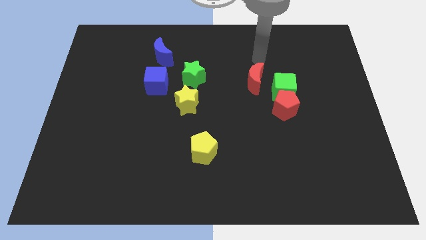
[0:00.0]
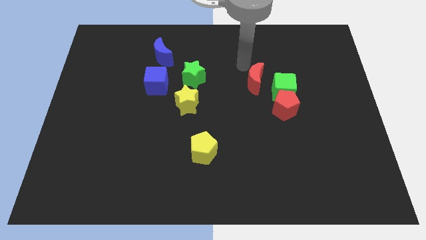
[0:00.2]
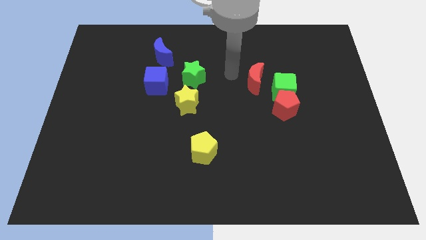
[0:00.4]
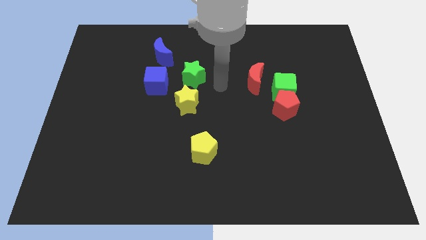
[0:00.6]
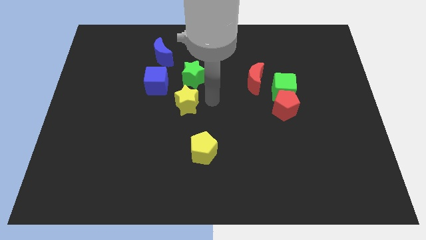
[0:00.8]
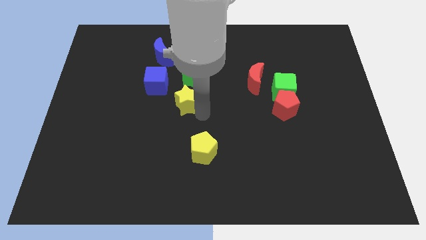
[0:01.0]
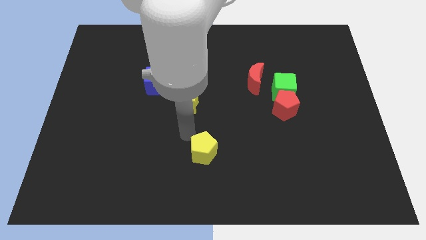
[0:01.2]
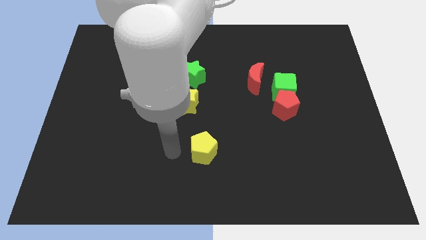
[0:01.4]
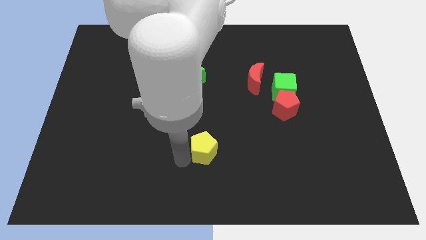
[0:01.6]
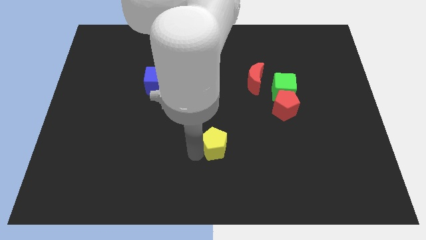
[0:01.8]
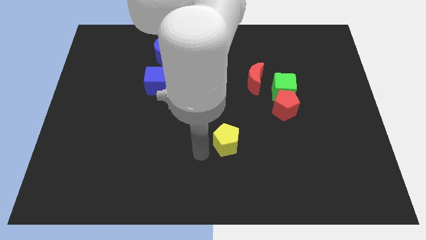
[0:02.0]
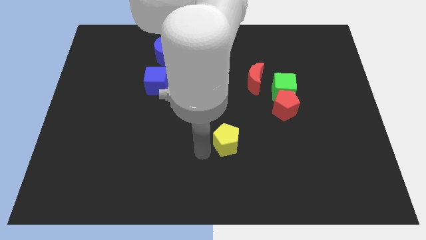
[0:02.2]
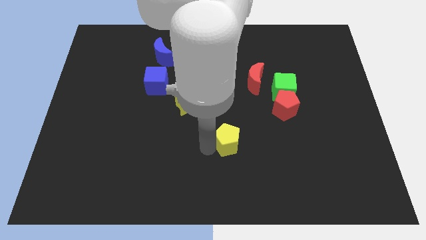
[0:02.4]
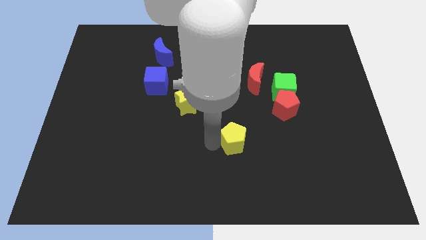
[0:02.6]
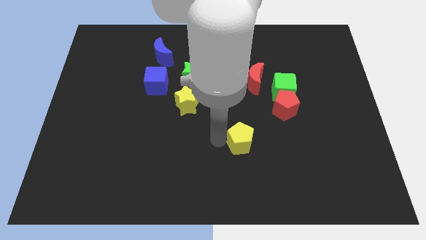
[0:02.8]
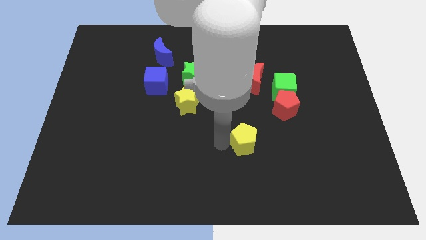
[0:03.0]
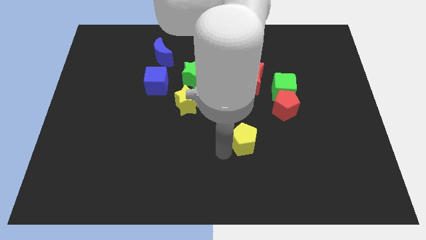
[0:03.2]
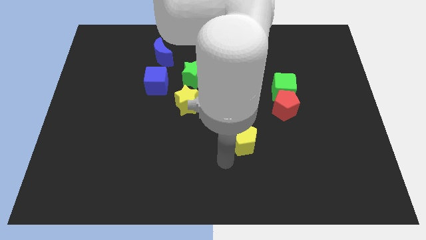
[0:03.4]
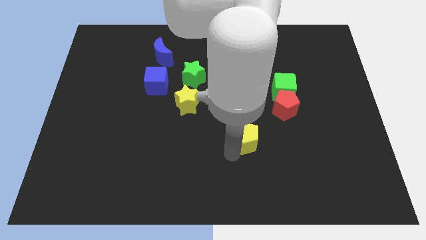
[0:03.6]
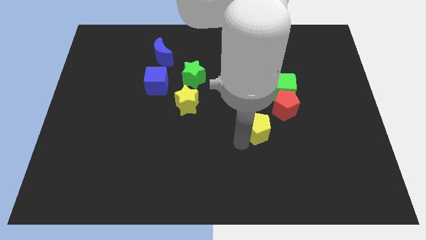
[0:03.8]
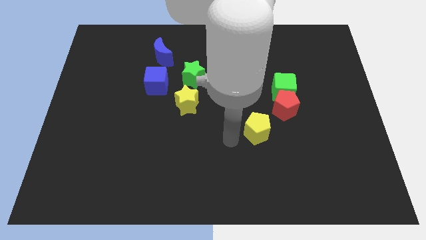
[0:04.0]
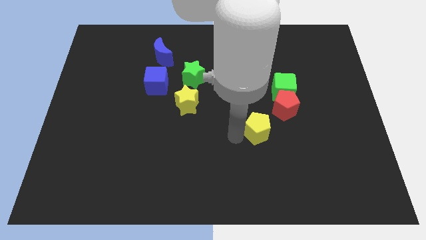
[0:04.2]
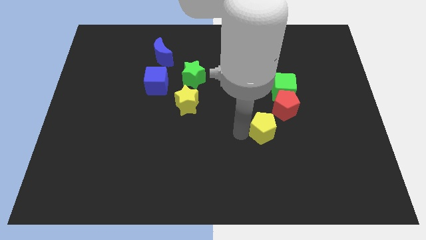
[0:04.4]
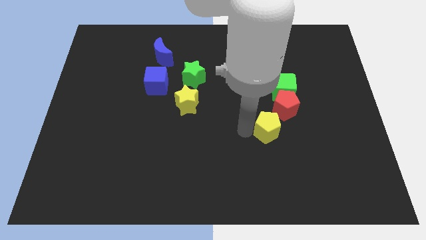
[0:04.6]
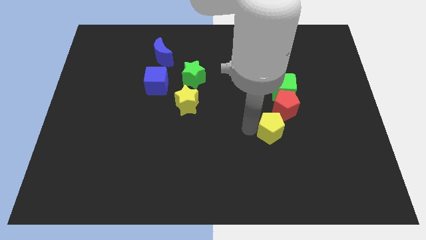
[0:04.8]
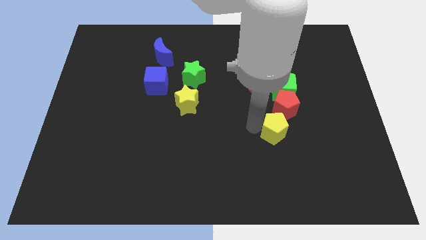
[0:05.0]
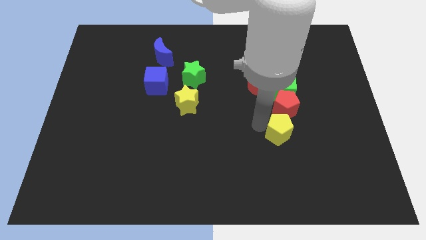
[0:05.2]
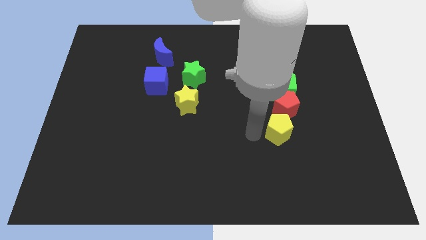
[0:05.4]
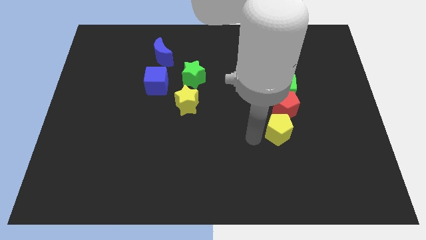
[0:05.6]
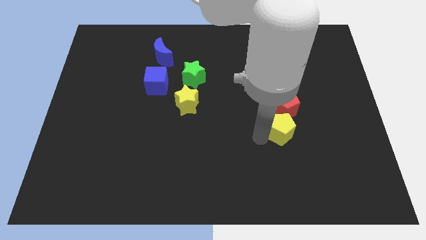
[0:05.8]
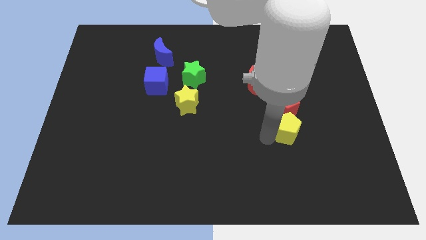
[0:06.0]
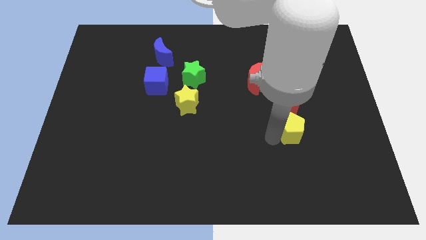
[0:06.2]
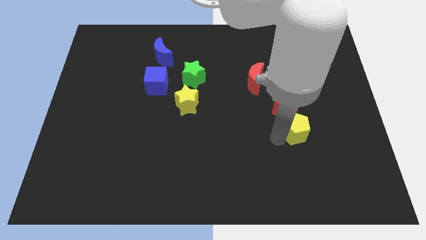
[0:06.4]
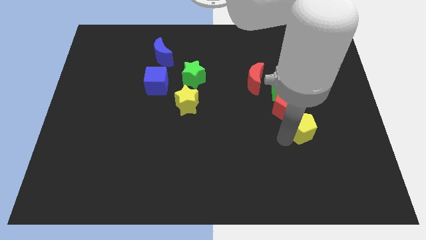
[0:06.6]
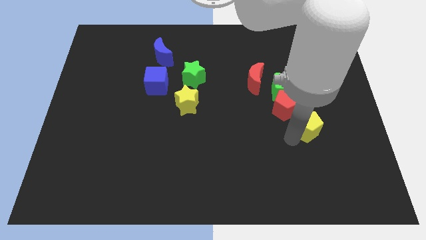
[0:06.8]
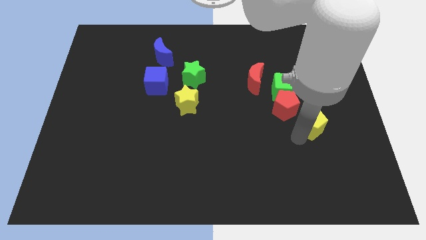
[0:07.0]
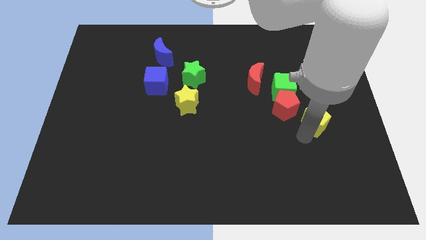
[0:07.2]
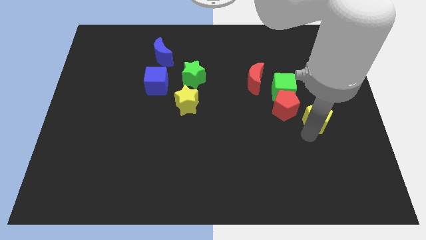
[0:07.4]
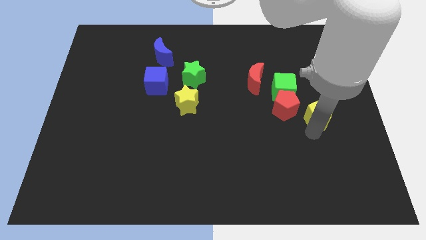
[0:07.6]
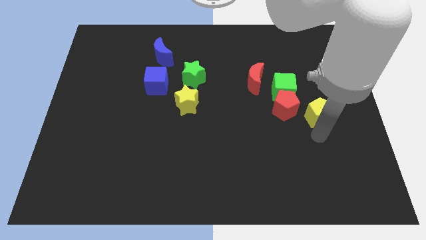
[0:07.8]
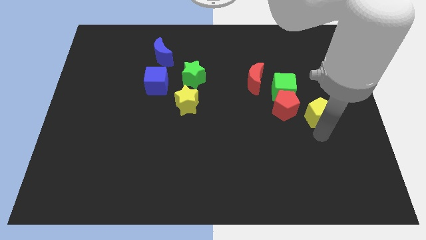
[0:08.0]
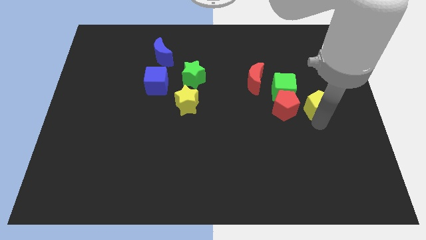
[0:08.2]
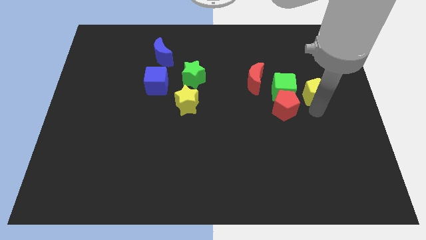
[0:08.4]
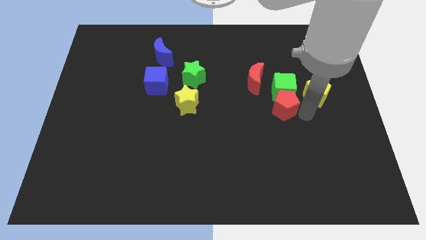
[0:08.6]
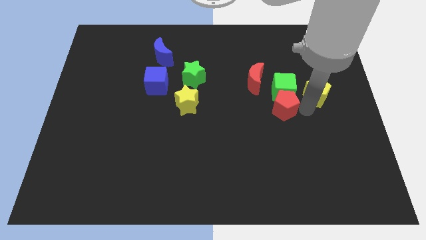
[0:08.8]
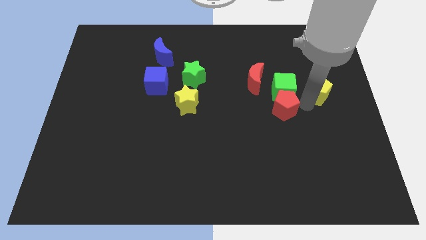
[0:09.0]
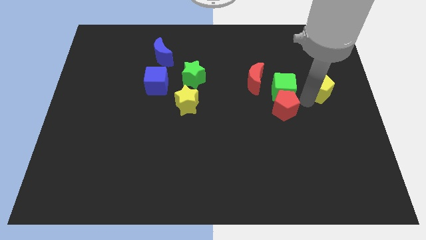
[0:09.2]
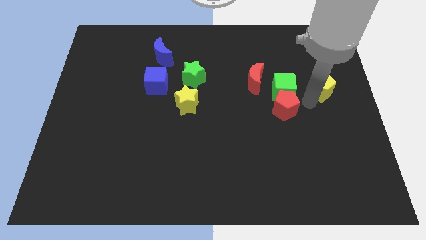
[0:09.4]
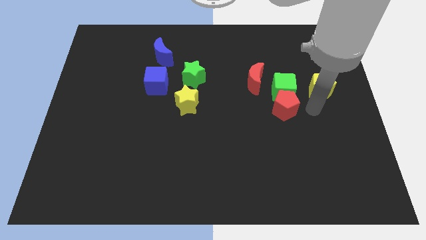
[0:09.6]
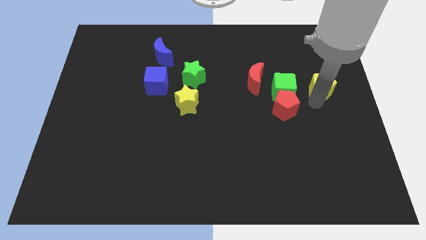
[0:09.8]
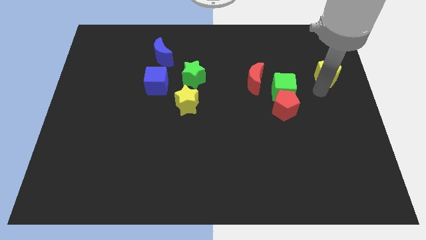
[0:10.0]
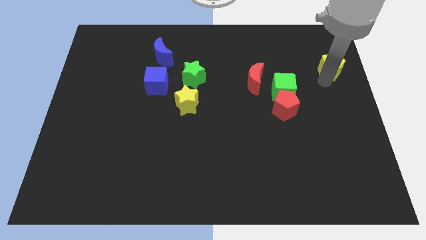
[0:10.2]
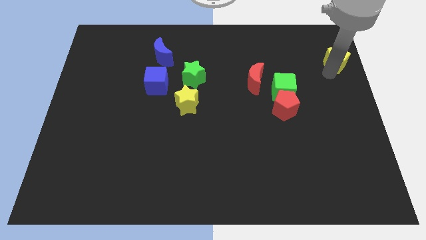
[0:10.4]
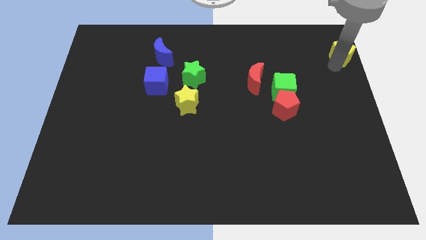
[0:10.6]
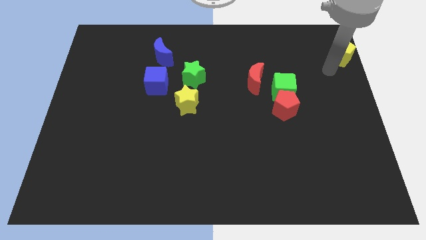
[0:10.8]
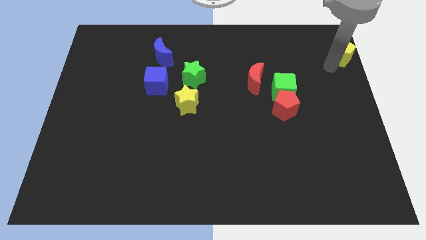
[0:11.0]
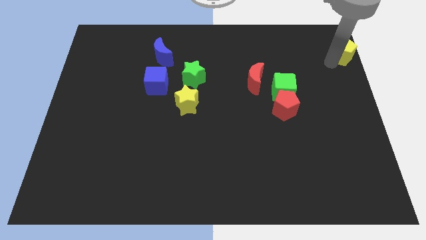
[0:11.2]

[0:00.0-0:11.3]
put the yellow pentagon to the top right corner
